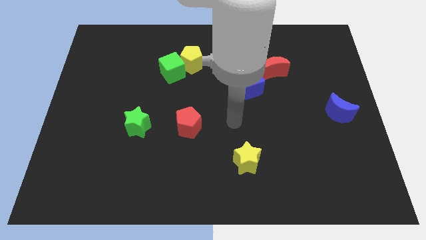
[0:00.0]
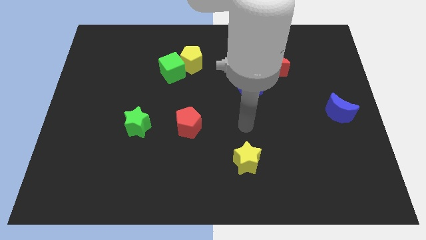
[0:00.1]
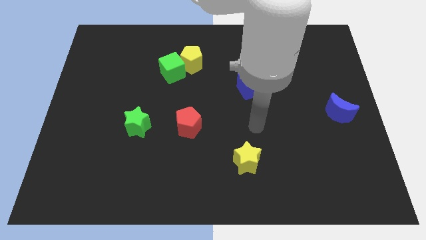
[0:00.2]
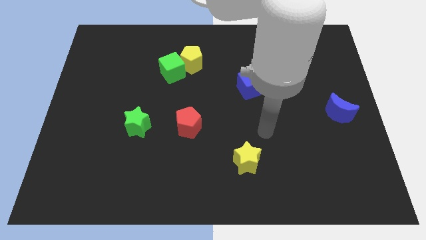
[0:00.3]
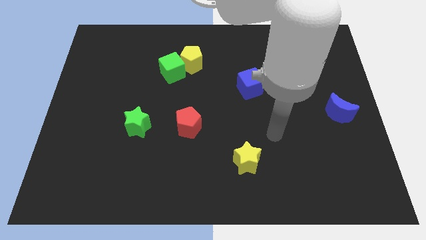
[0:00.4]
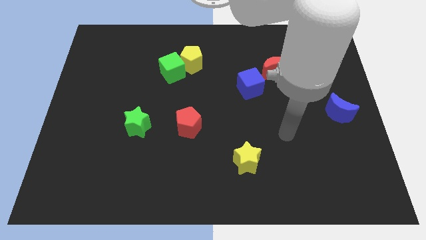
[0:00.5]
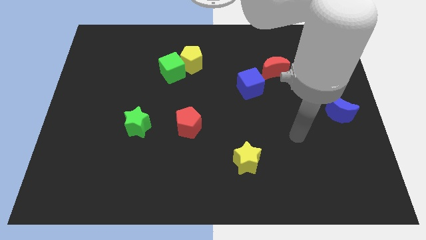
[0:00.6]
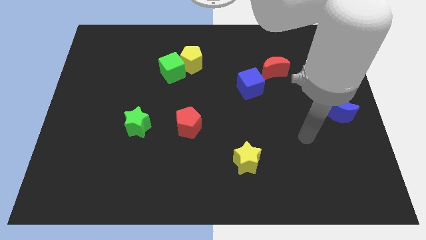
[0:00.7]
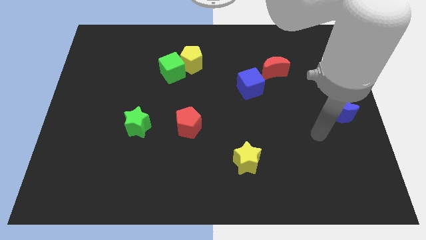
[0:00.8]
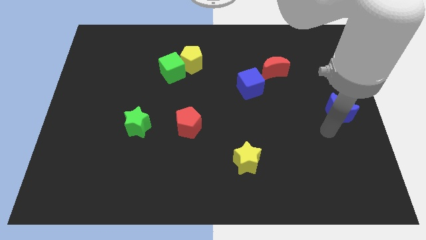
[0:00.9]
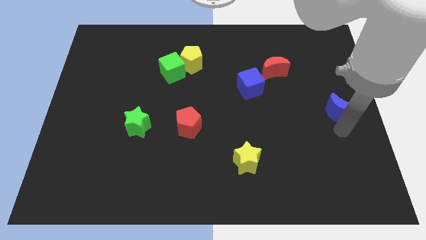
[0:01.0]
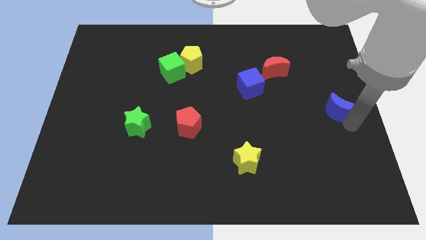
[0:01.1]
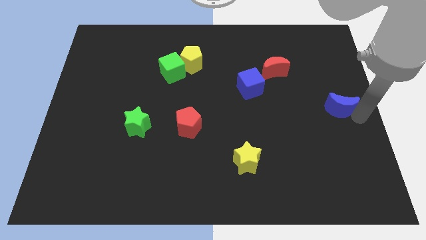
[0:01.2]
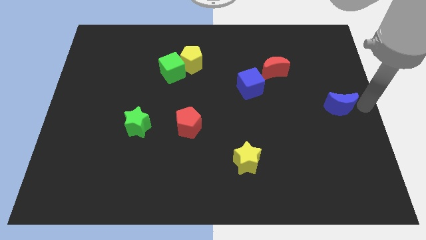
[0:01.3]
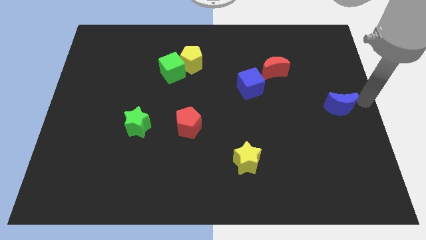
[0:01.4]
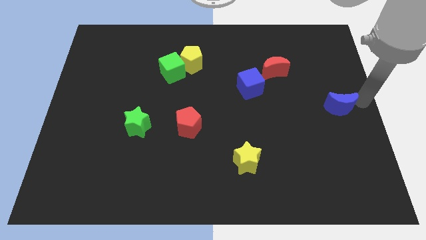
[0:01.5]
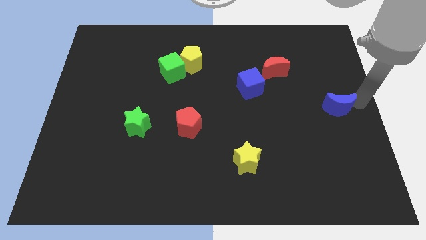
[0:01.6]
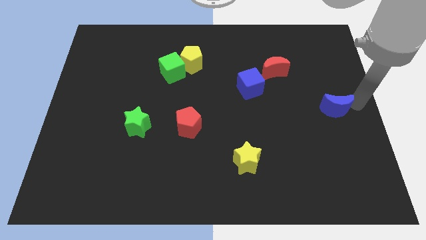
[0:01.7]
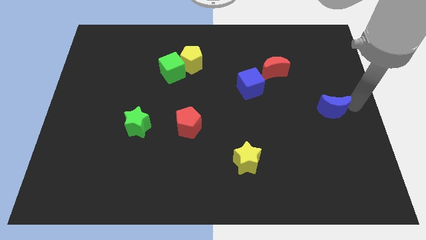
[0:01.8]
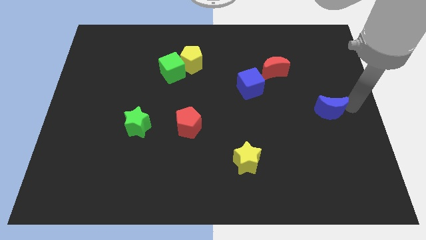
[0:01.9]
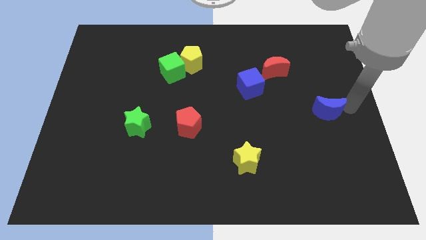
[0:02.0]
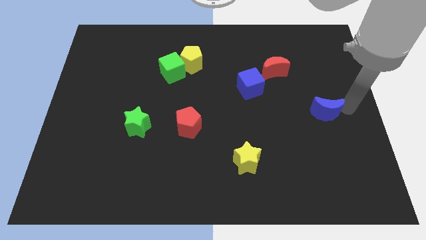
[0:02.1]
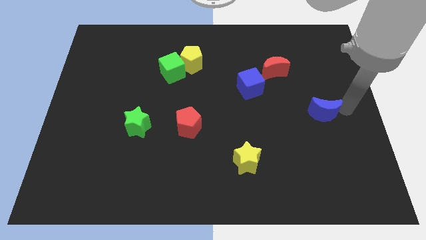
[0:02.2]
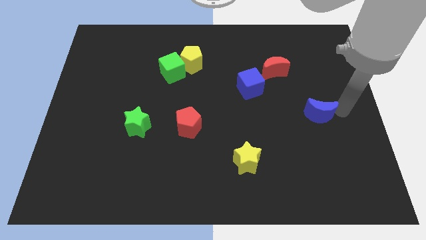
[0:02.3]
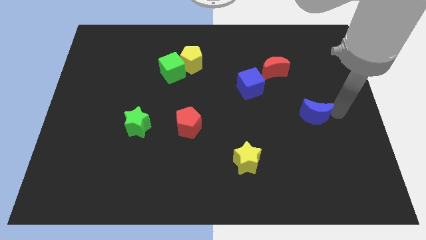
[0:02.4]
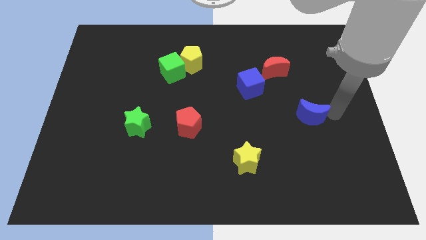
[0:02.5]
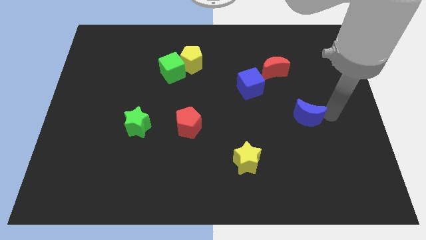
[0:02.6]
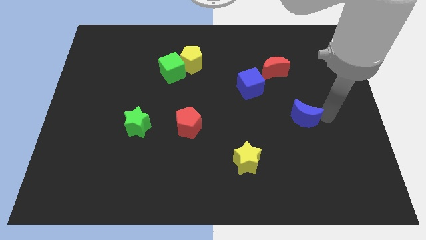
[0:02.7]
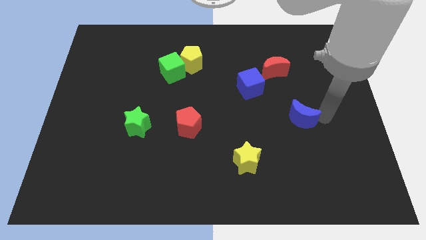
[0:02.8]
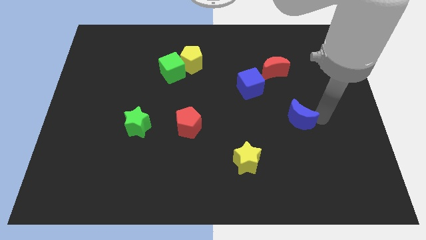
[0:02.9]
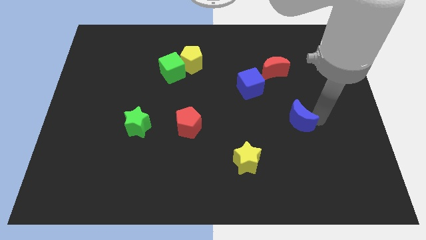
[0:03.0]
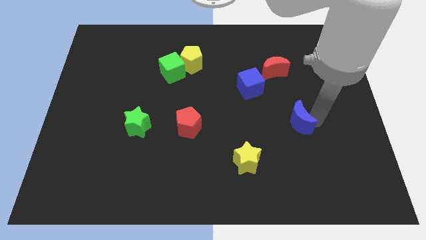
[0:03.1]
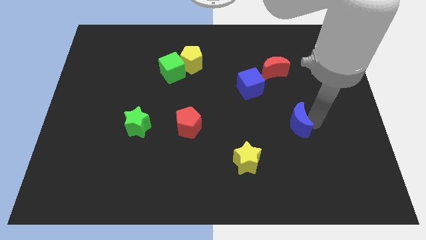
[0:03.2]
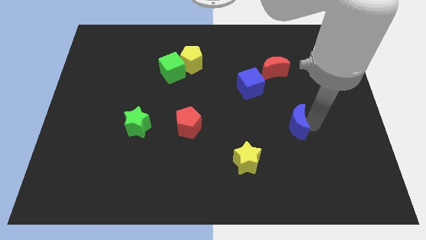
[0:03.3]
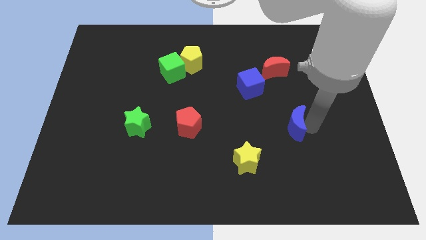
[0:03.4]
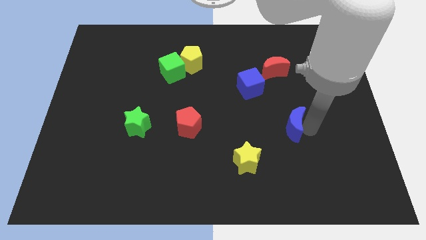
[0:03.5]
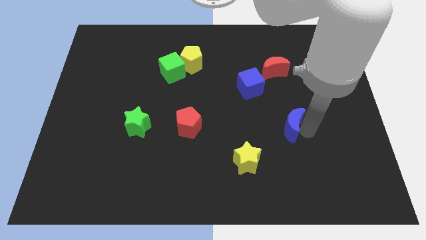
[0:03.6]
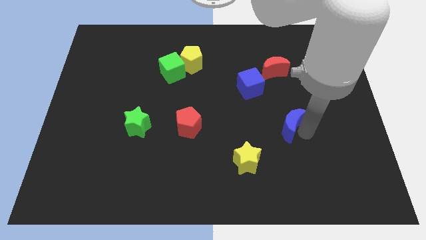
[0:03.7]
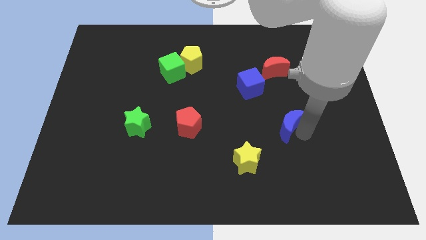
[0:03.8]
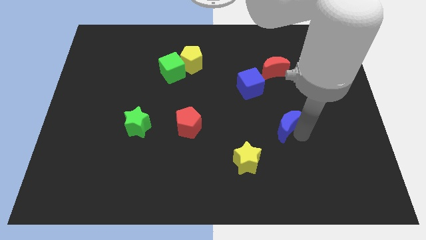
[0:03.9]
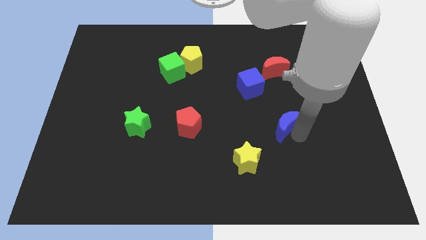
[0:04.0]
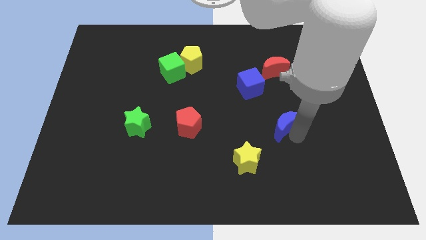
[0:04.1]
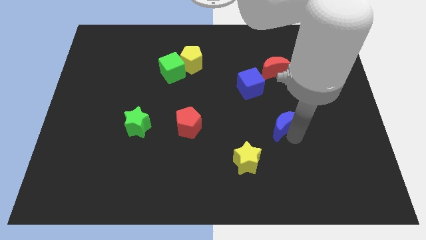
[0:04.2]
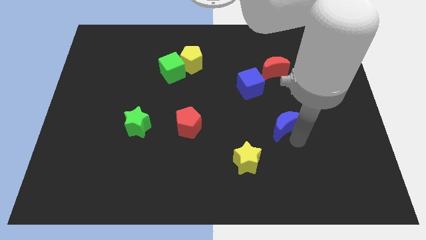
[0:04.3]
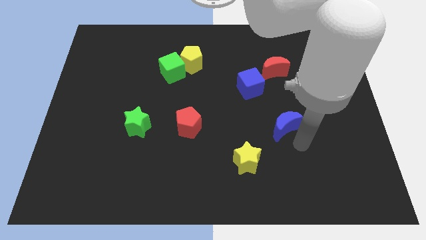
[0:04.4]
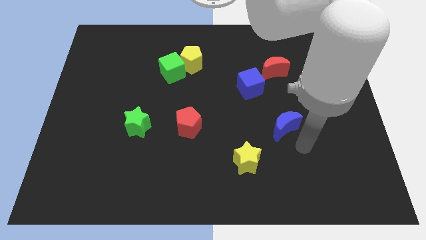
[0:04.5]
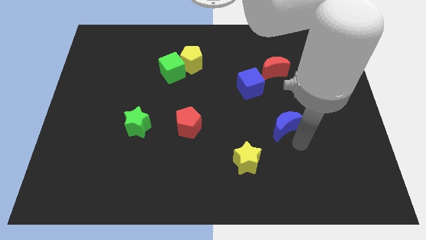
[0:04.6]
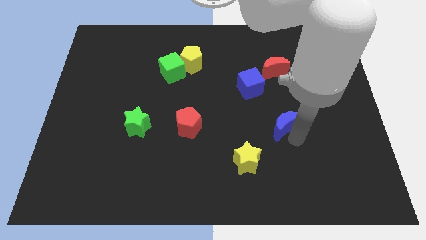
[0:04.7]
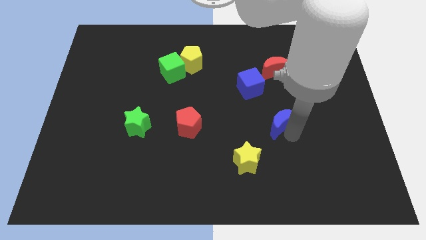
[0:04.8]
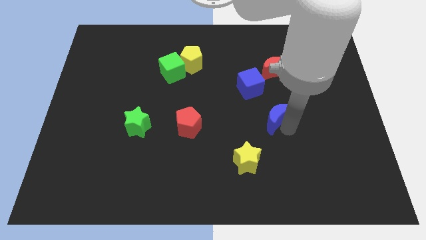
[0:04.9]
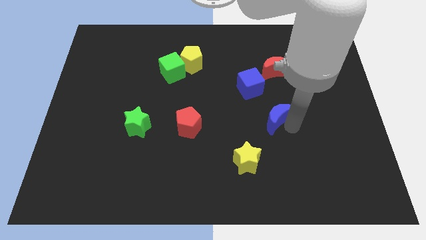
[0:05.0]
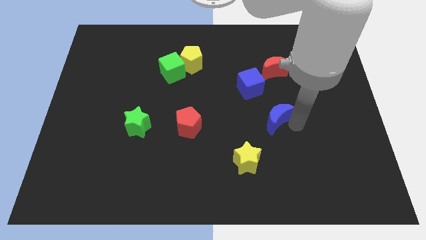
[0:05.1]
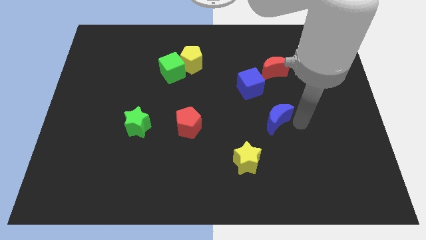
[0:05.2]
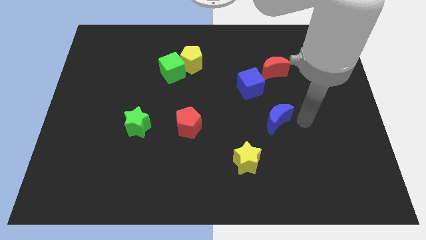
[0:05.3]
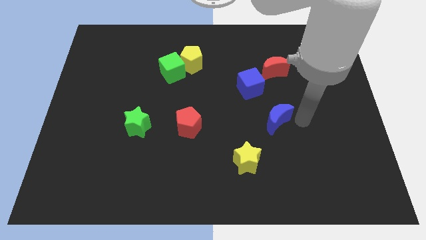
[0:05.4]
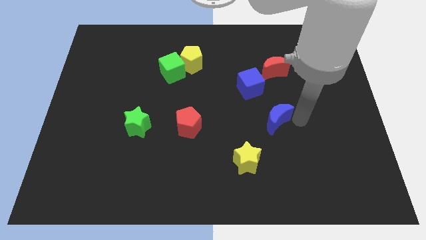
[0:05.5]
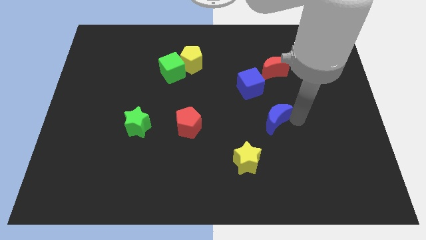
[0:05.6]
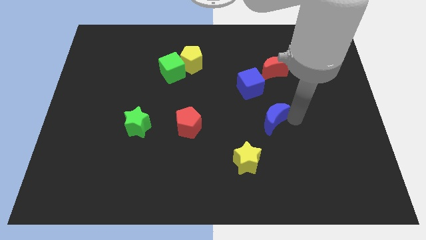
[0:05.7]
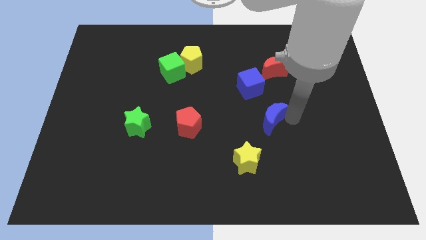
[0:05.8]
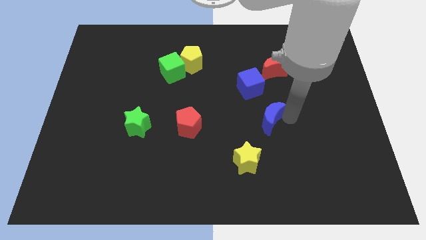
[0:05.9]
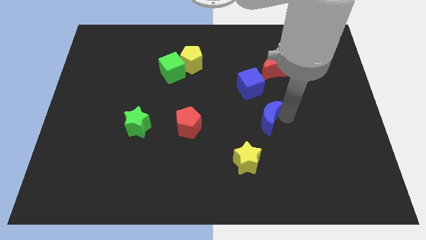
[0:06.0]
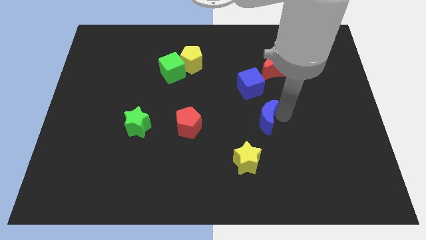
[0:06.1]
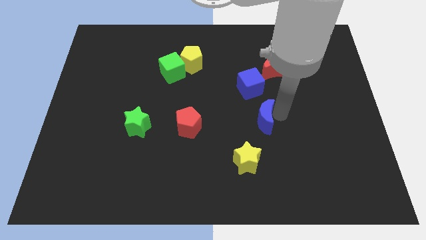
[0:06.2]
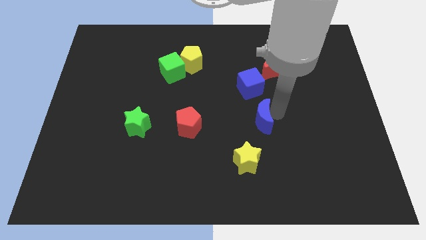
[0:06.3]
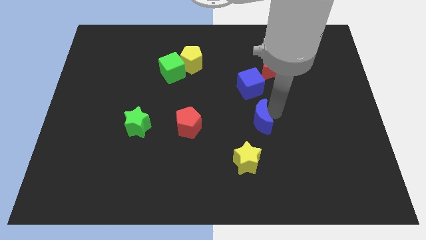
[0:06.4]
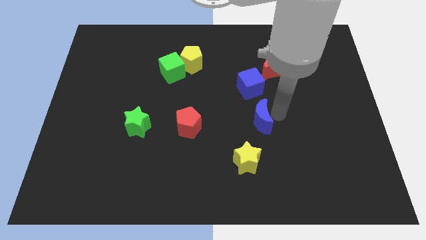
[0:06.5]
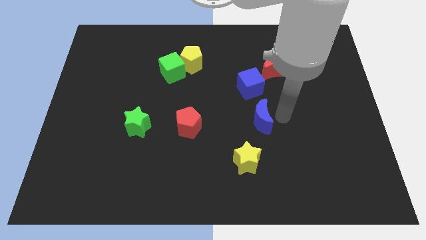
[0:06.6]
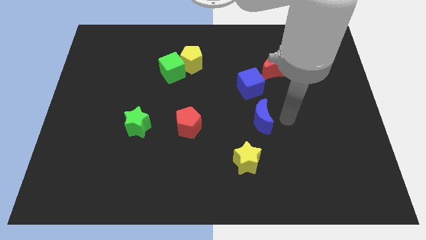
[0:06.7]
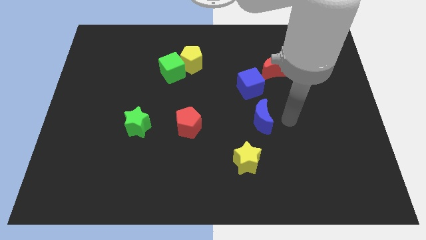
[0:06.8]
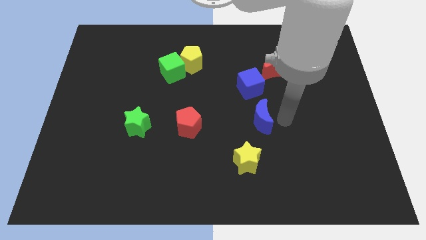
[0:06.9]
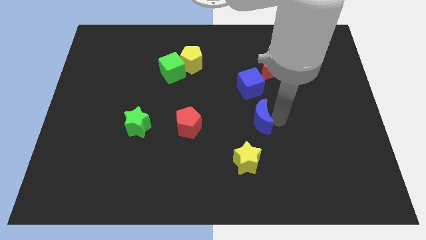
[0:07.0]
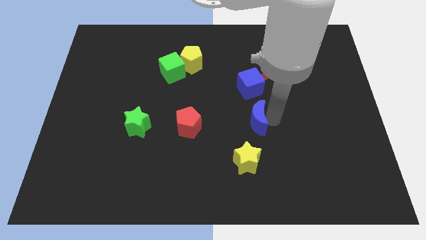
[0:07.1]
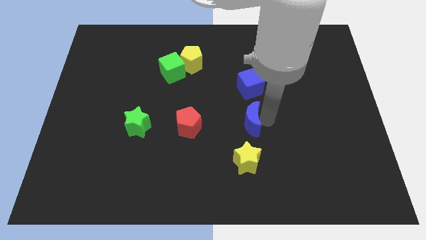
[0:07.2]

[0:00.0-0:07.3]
push the blue moon to the left

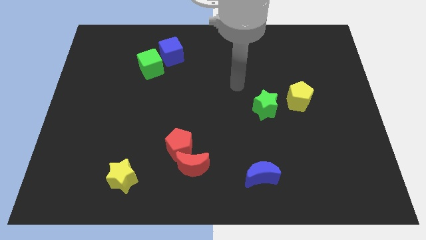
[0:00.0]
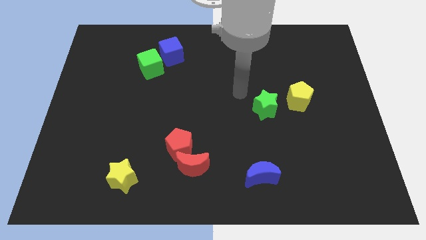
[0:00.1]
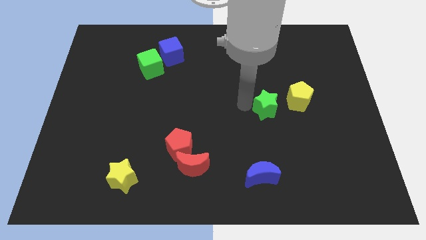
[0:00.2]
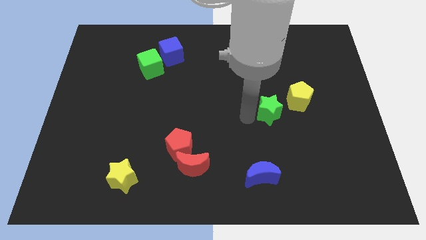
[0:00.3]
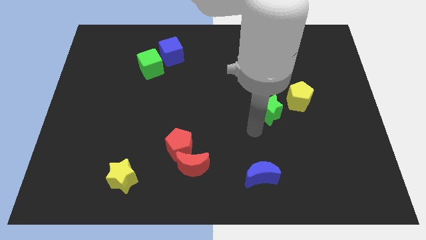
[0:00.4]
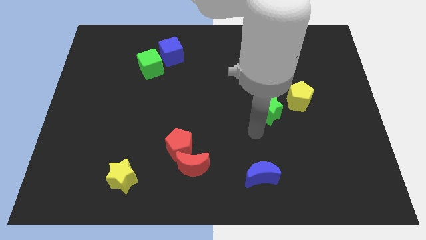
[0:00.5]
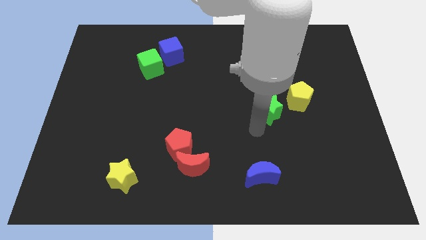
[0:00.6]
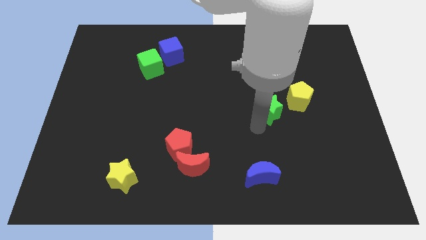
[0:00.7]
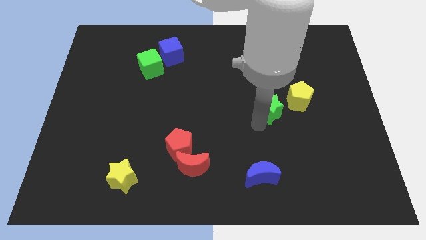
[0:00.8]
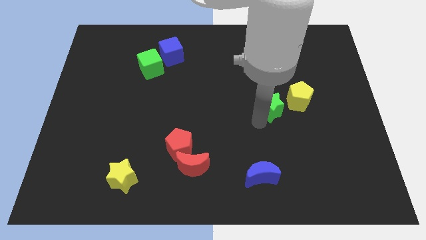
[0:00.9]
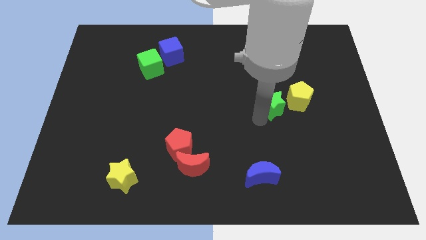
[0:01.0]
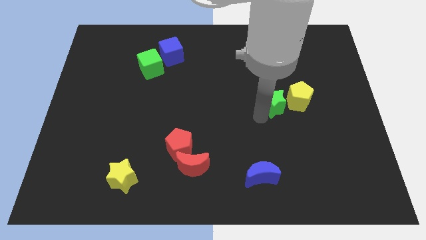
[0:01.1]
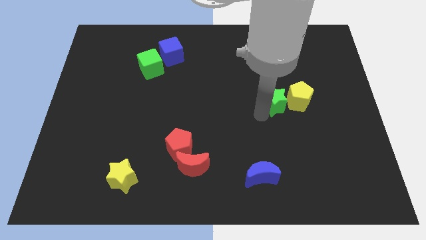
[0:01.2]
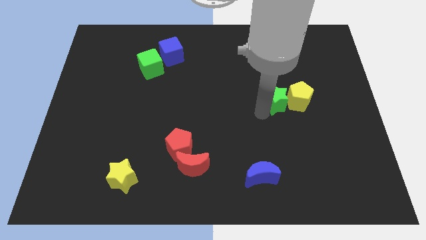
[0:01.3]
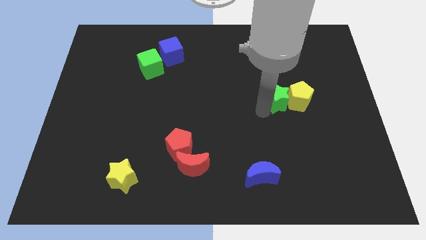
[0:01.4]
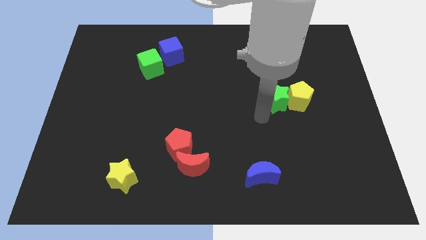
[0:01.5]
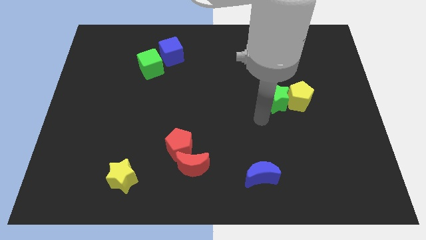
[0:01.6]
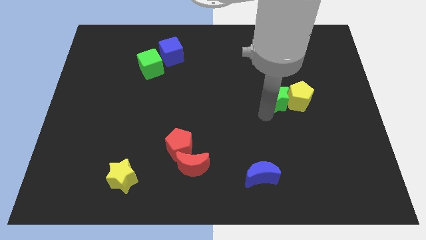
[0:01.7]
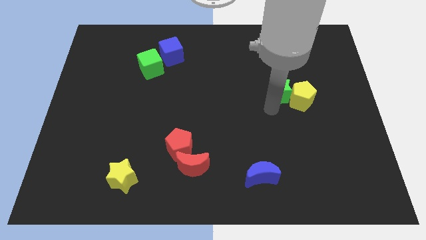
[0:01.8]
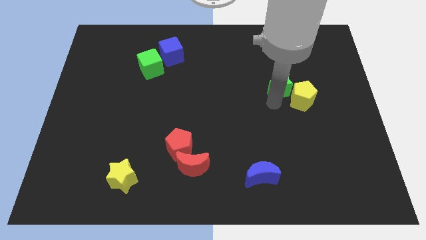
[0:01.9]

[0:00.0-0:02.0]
slightly move the green star up and then right
